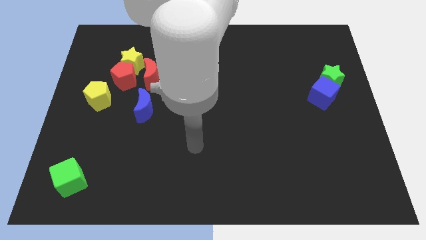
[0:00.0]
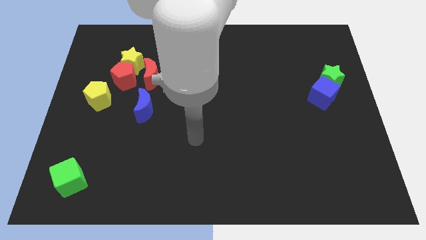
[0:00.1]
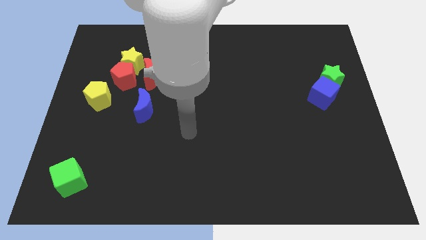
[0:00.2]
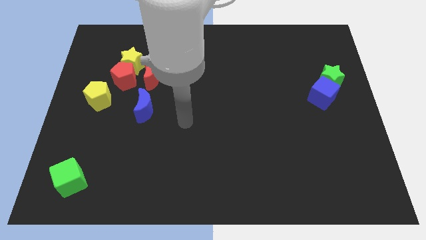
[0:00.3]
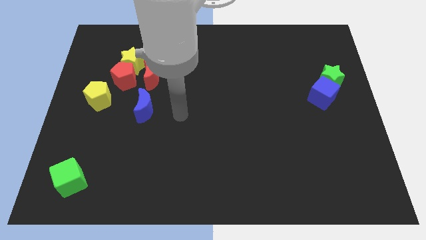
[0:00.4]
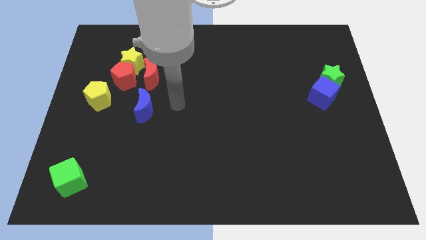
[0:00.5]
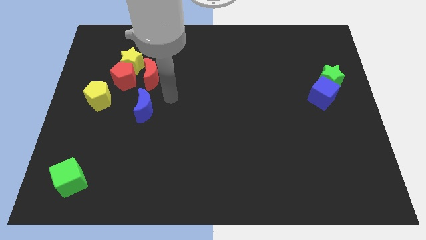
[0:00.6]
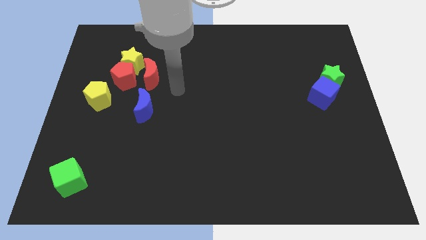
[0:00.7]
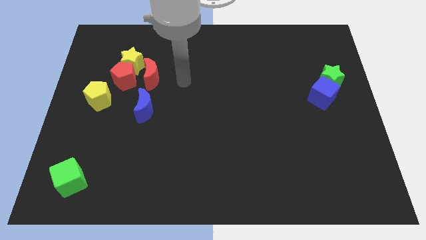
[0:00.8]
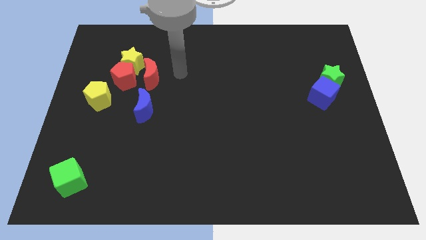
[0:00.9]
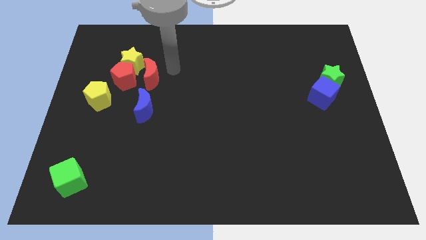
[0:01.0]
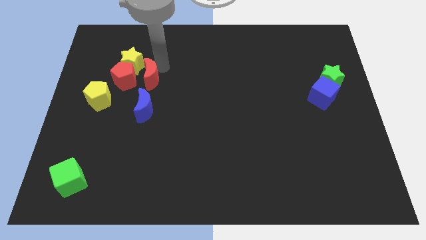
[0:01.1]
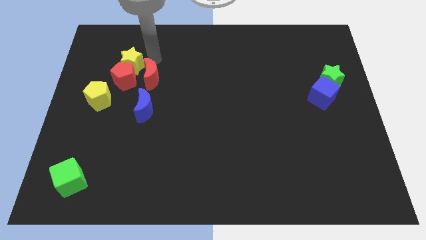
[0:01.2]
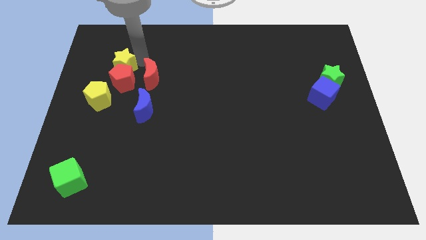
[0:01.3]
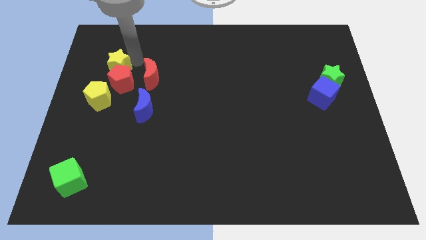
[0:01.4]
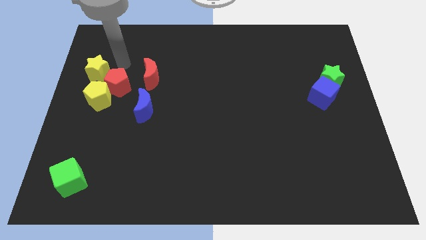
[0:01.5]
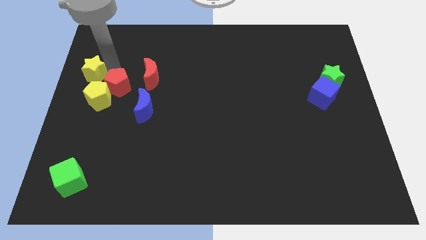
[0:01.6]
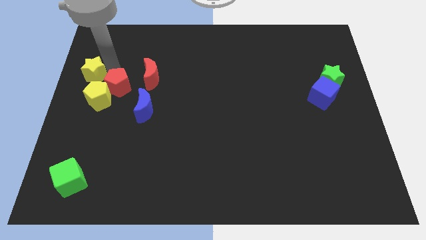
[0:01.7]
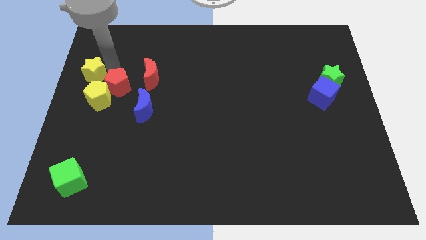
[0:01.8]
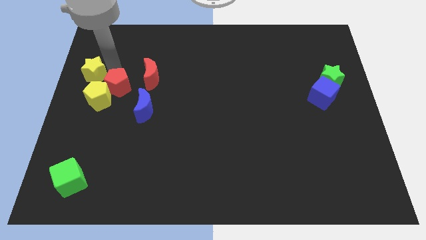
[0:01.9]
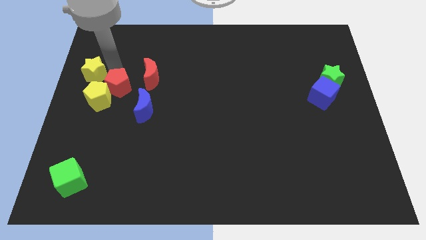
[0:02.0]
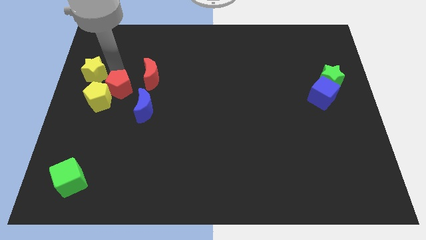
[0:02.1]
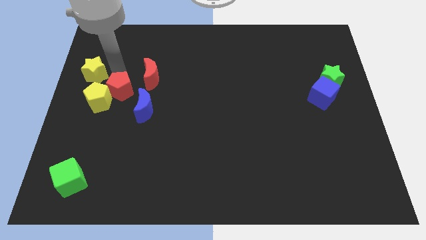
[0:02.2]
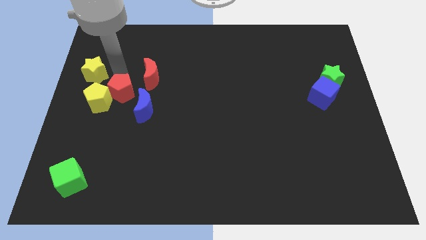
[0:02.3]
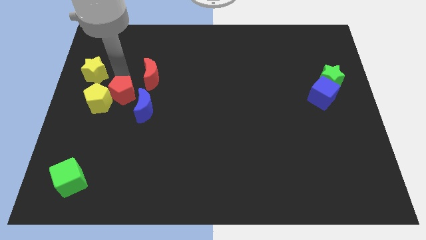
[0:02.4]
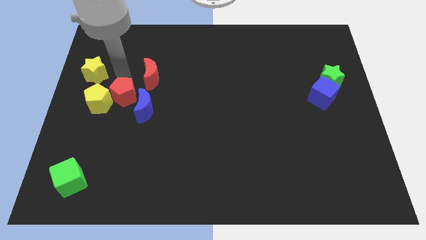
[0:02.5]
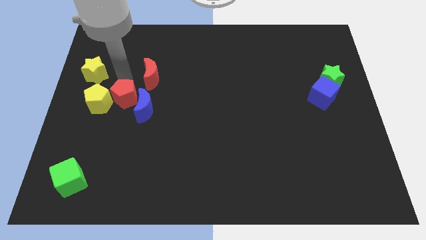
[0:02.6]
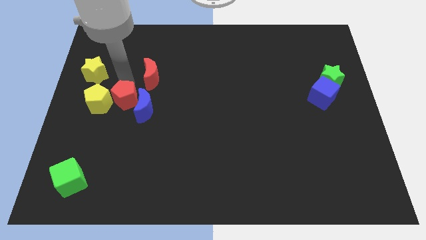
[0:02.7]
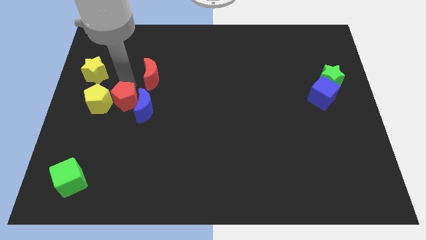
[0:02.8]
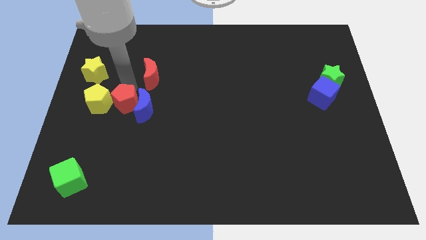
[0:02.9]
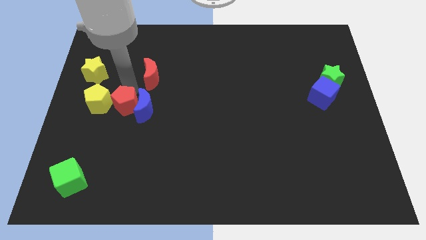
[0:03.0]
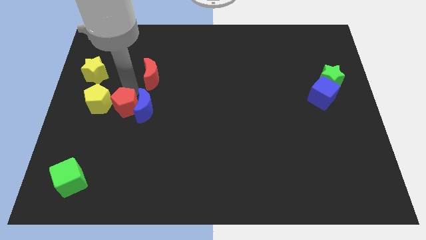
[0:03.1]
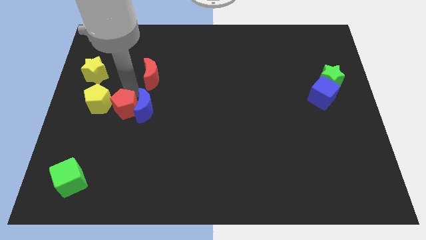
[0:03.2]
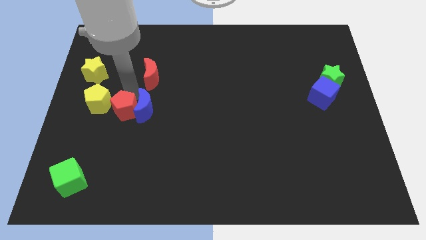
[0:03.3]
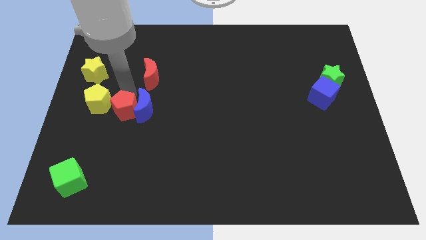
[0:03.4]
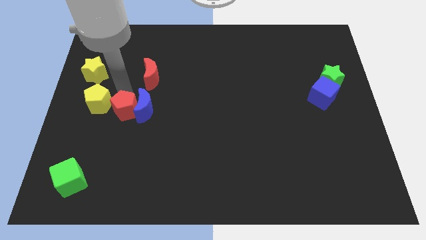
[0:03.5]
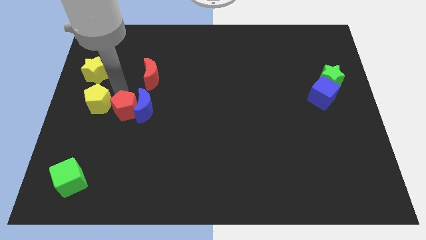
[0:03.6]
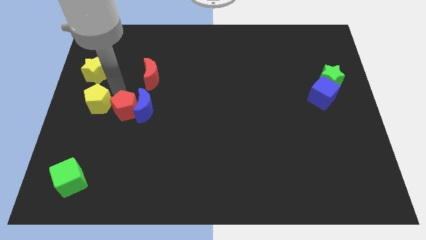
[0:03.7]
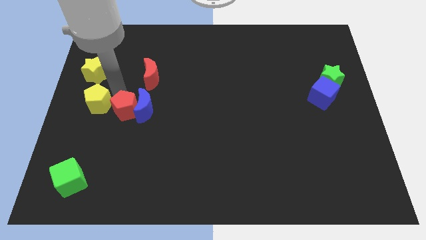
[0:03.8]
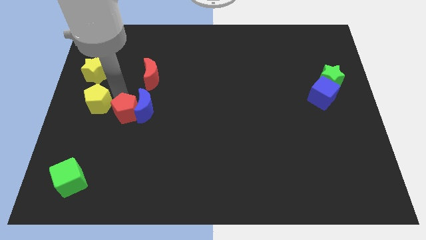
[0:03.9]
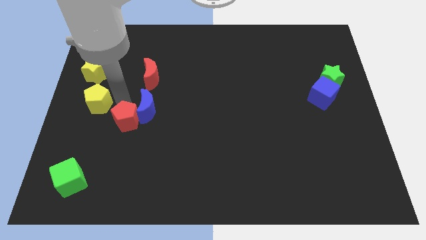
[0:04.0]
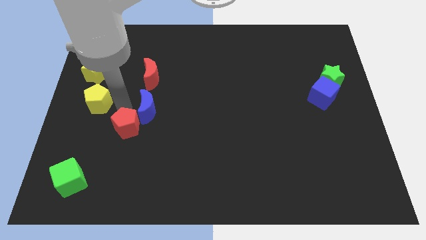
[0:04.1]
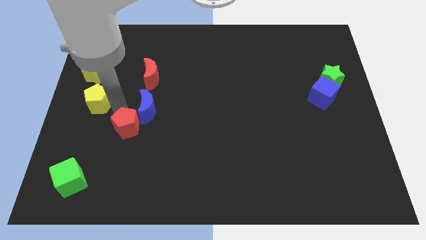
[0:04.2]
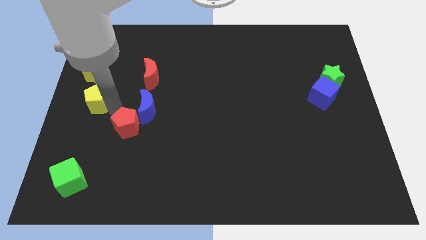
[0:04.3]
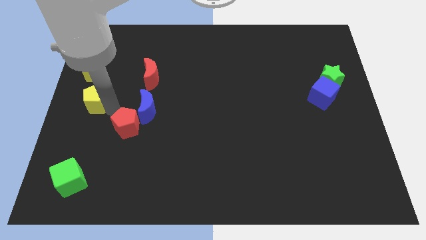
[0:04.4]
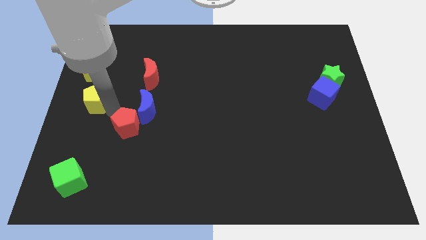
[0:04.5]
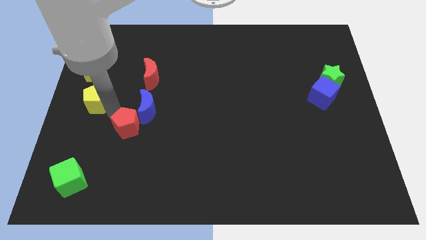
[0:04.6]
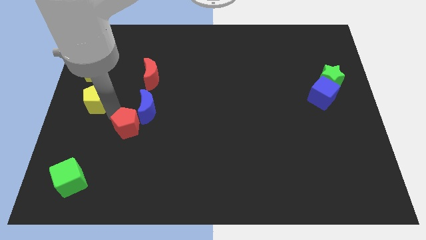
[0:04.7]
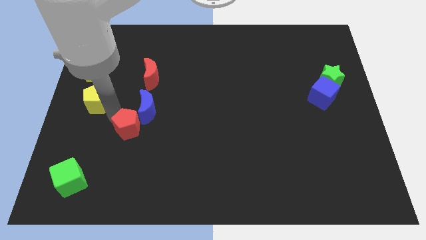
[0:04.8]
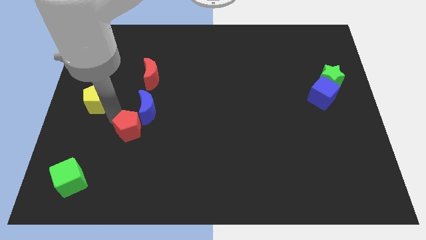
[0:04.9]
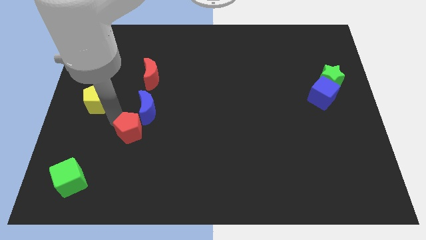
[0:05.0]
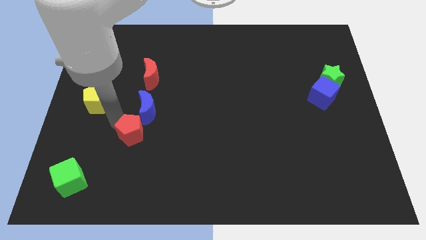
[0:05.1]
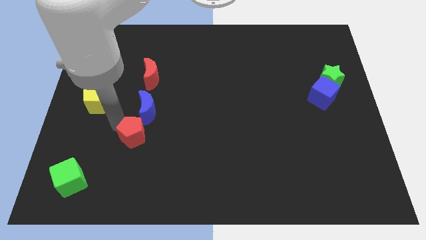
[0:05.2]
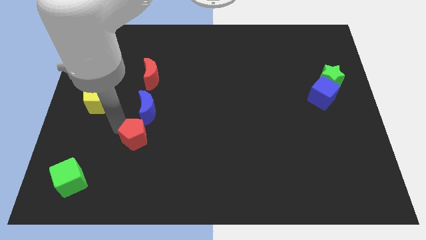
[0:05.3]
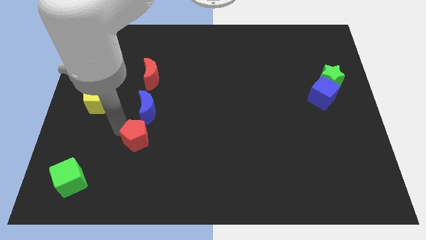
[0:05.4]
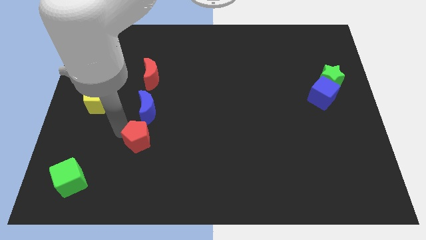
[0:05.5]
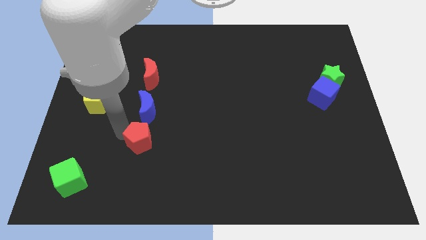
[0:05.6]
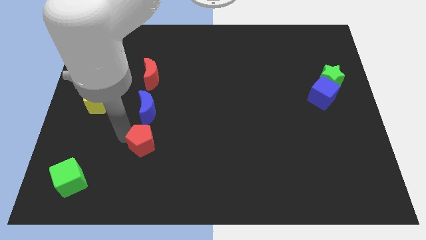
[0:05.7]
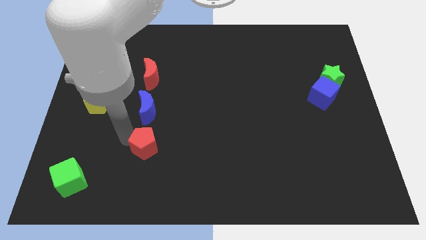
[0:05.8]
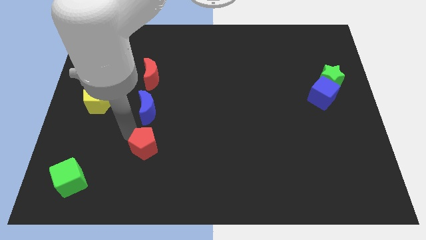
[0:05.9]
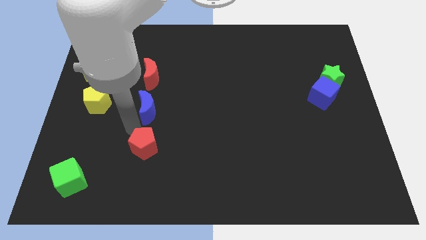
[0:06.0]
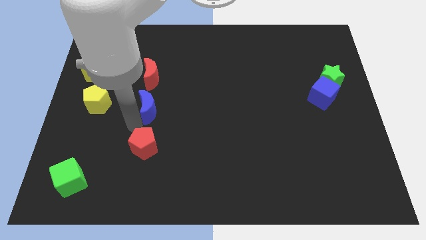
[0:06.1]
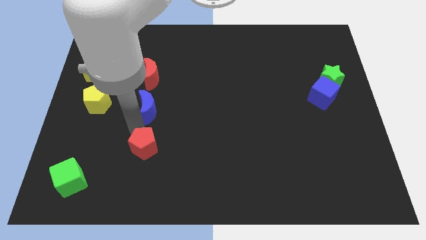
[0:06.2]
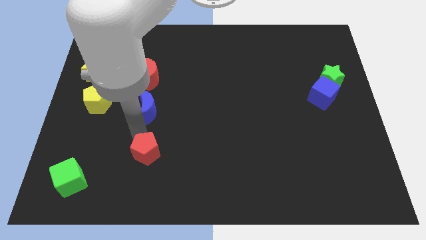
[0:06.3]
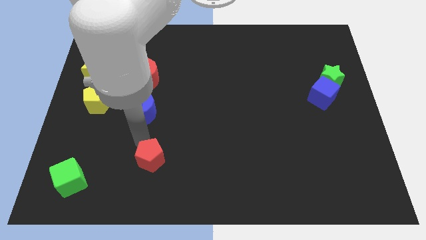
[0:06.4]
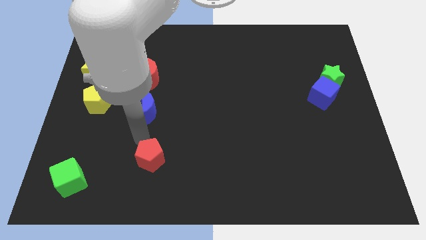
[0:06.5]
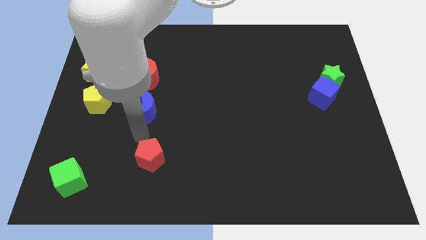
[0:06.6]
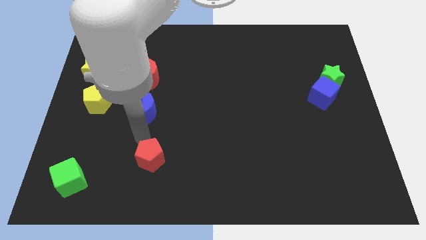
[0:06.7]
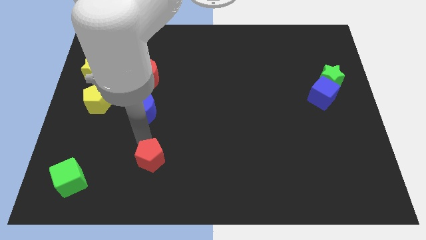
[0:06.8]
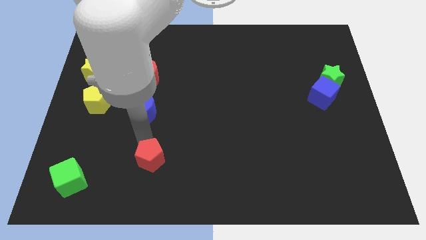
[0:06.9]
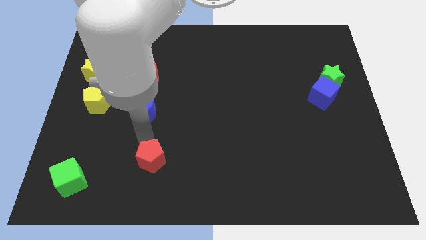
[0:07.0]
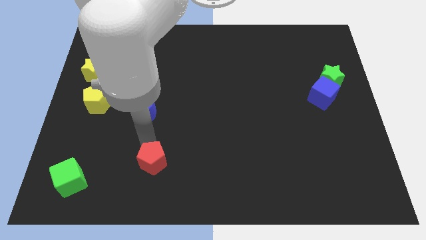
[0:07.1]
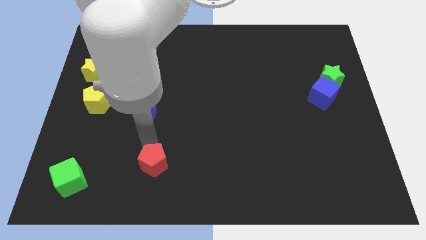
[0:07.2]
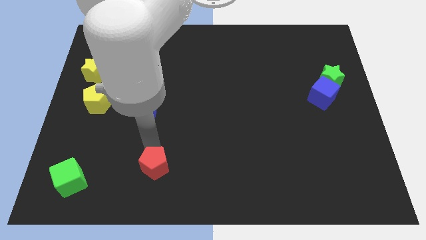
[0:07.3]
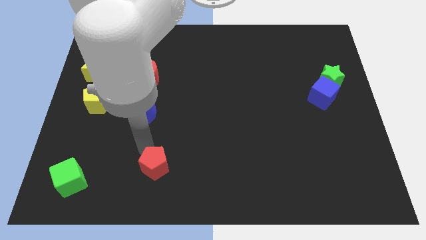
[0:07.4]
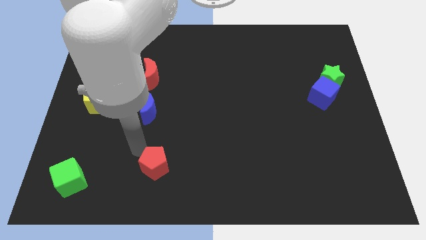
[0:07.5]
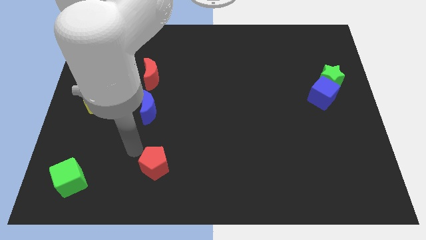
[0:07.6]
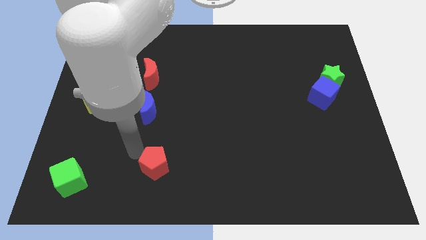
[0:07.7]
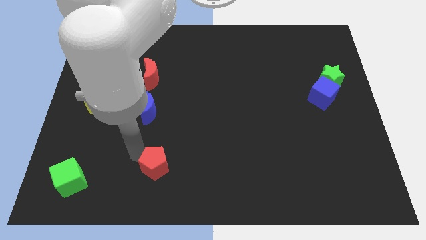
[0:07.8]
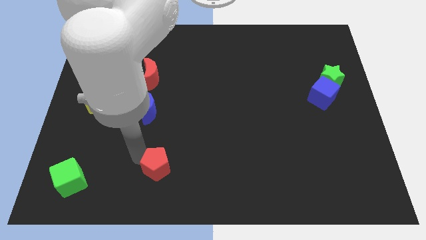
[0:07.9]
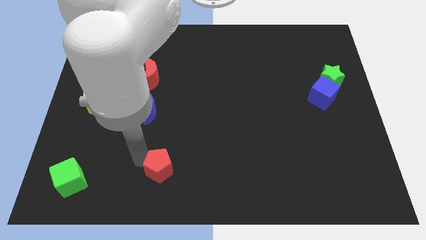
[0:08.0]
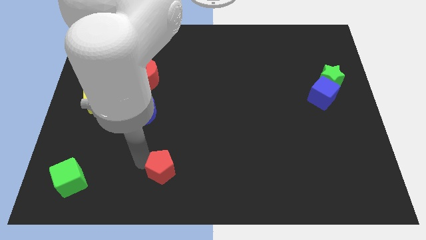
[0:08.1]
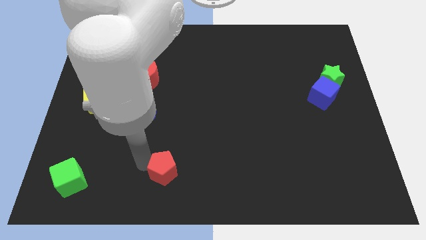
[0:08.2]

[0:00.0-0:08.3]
push the red pentagon to the bottom
